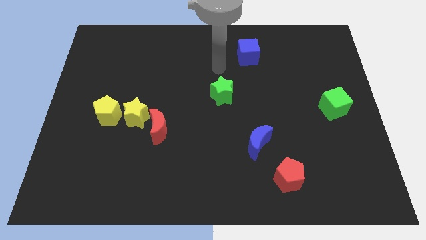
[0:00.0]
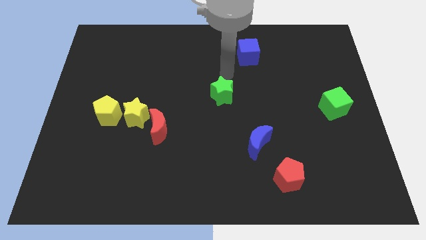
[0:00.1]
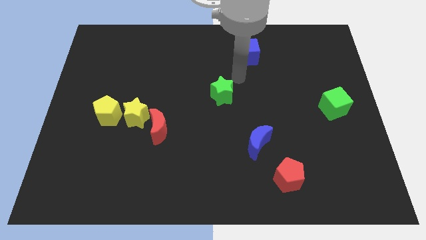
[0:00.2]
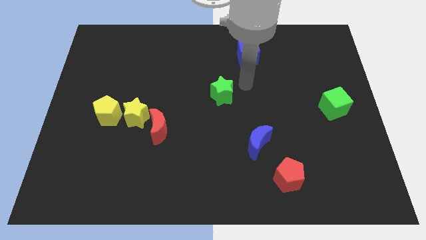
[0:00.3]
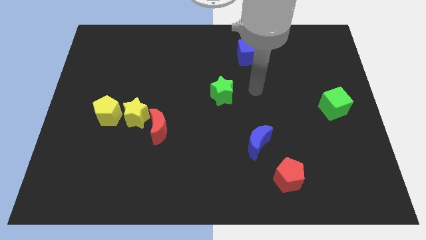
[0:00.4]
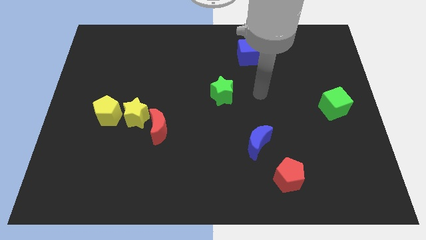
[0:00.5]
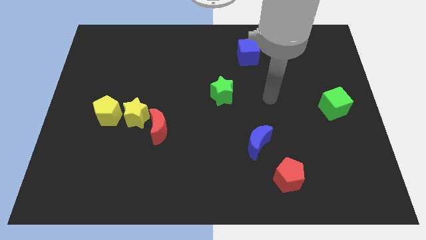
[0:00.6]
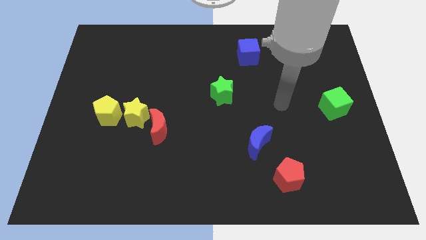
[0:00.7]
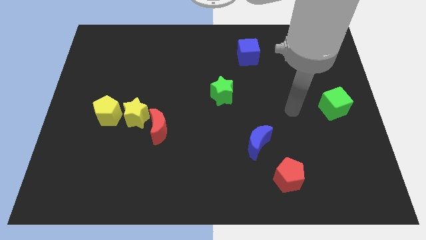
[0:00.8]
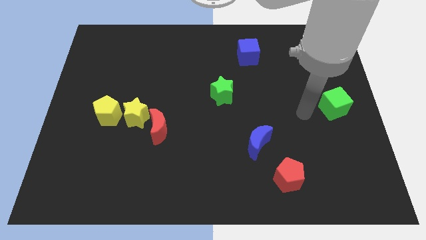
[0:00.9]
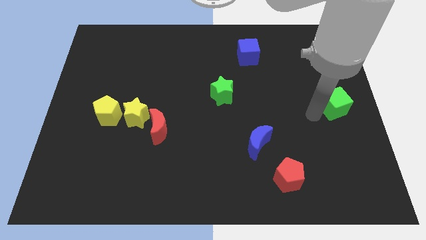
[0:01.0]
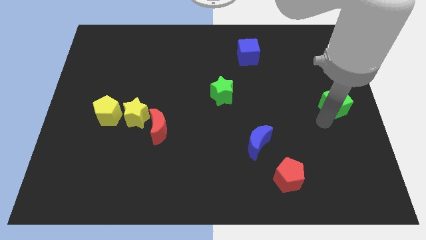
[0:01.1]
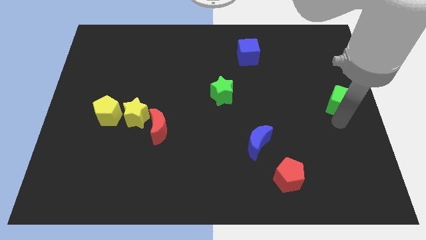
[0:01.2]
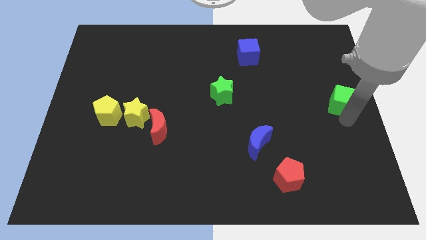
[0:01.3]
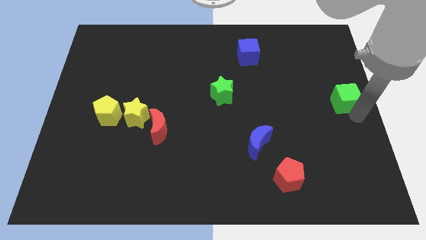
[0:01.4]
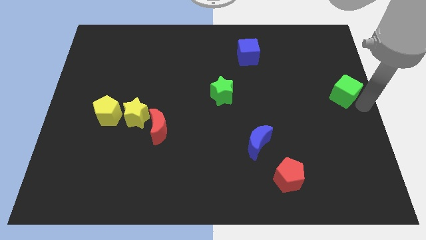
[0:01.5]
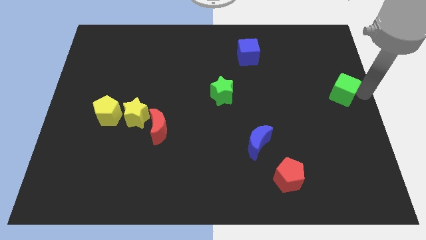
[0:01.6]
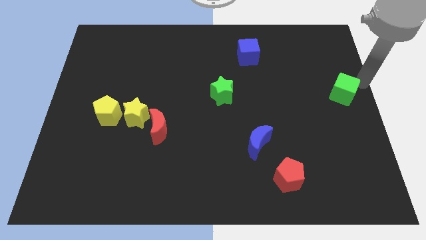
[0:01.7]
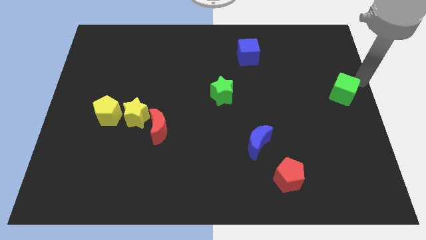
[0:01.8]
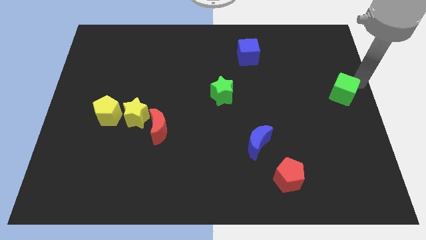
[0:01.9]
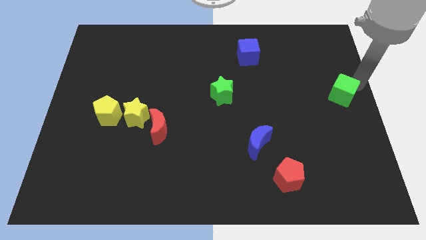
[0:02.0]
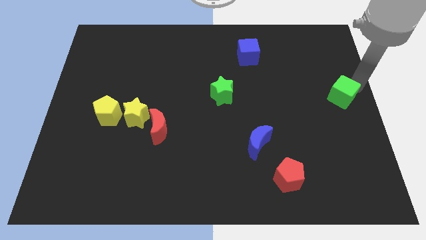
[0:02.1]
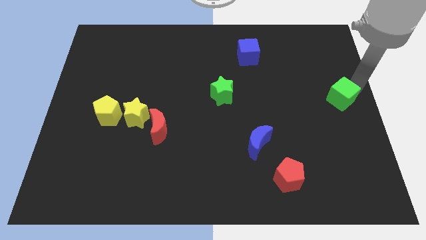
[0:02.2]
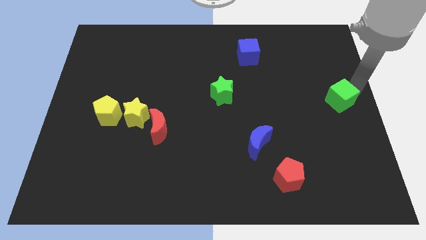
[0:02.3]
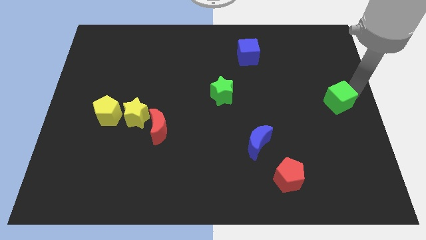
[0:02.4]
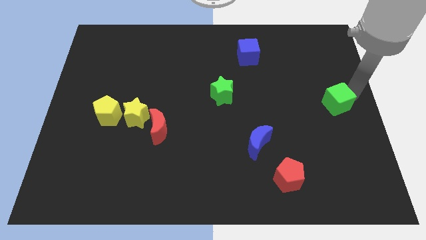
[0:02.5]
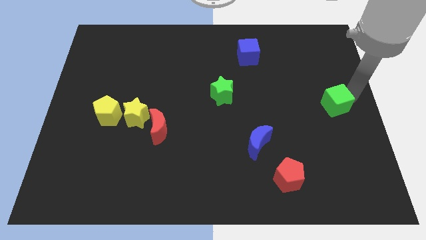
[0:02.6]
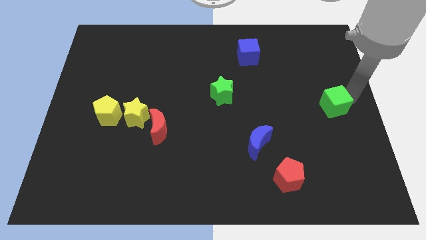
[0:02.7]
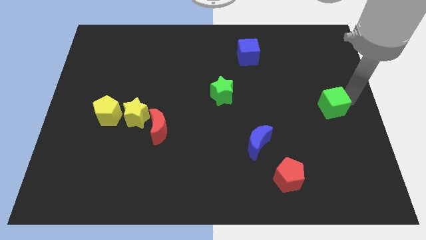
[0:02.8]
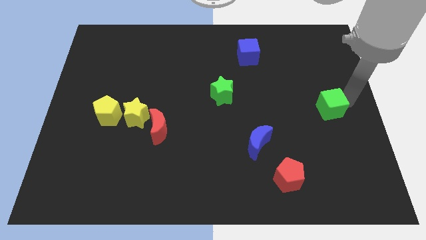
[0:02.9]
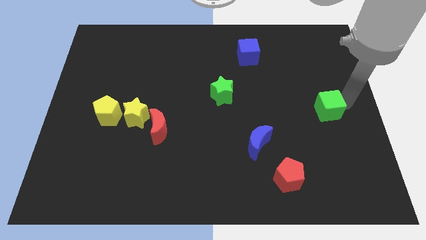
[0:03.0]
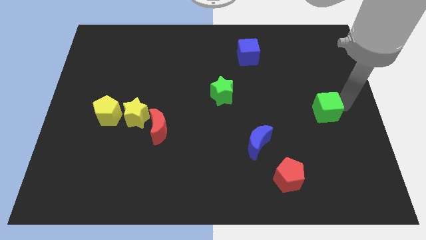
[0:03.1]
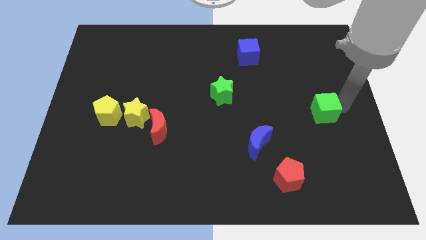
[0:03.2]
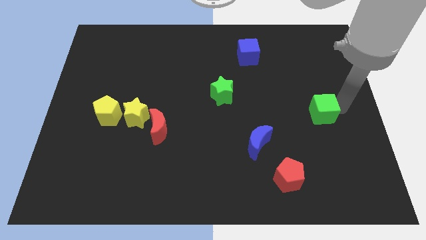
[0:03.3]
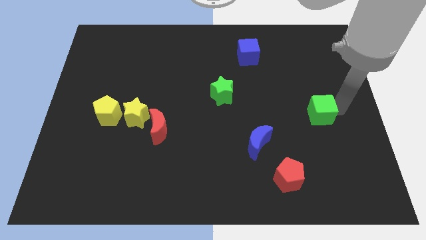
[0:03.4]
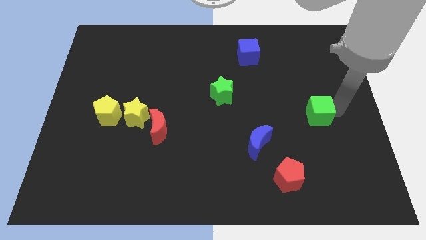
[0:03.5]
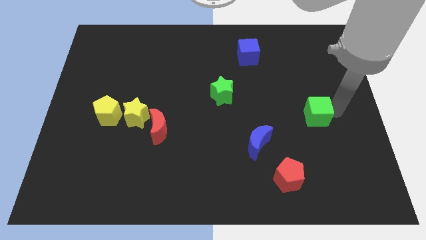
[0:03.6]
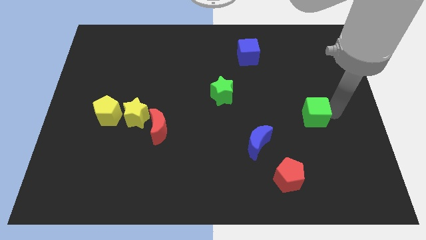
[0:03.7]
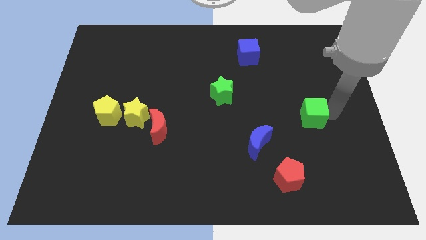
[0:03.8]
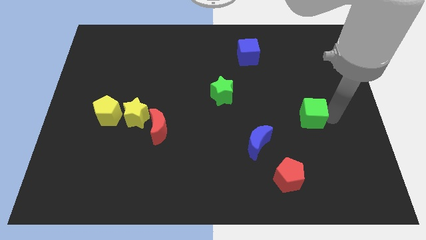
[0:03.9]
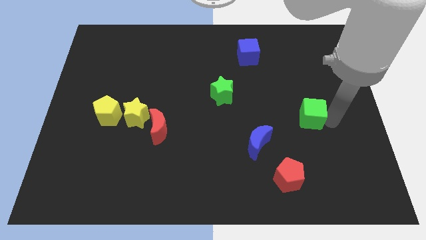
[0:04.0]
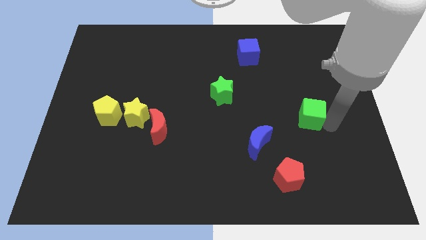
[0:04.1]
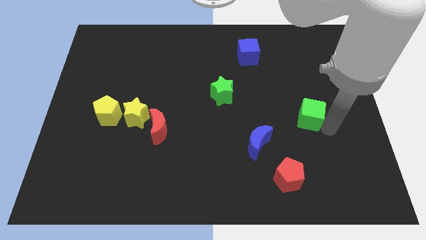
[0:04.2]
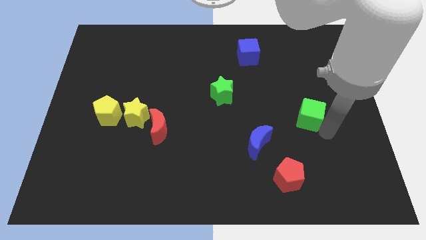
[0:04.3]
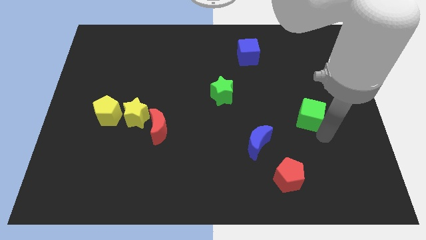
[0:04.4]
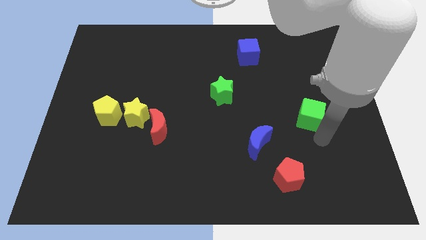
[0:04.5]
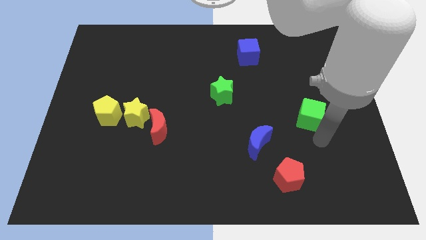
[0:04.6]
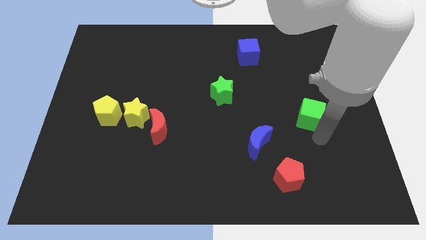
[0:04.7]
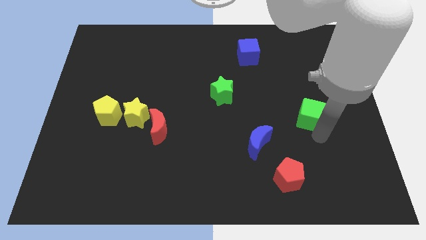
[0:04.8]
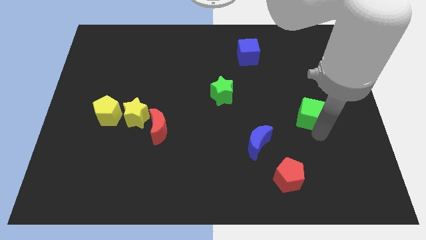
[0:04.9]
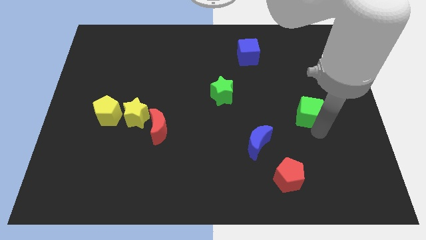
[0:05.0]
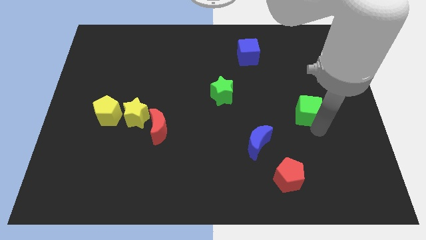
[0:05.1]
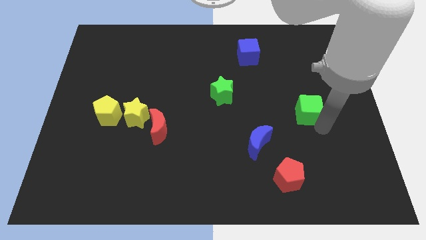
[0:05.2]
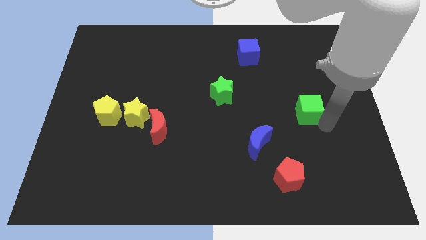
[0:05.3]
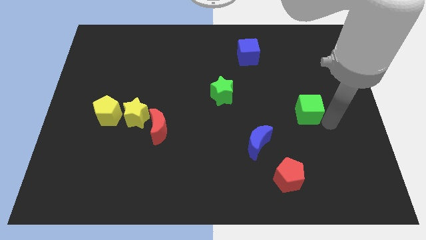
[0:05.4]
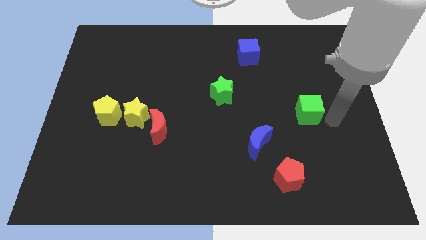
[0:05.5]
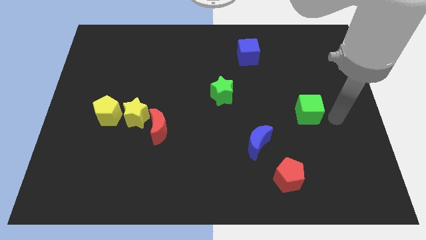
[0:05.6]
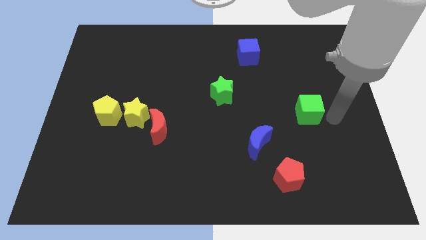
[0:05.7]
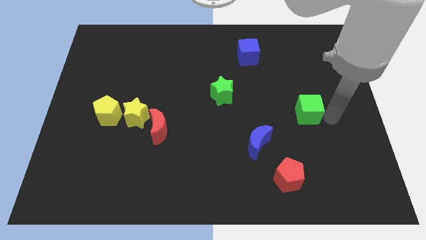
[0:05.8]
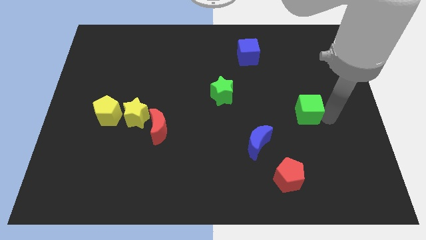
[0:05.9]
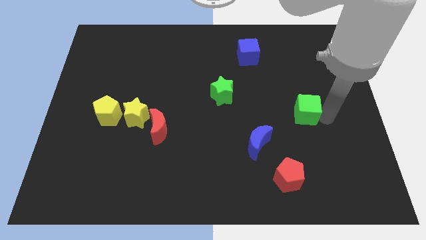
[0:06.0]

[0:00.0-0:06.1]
move the green cube slightly to the left

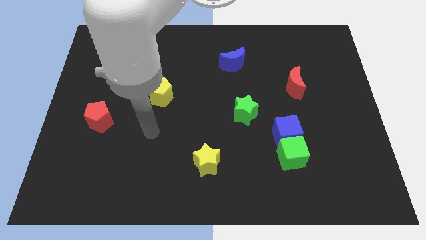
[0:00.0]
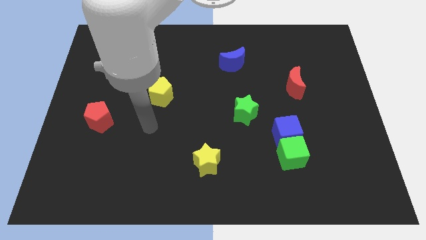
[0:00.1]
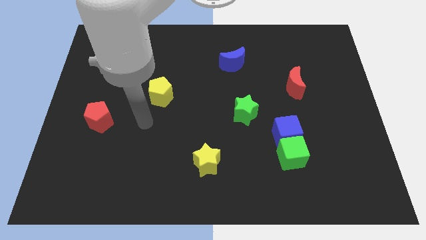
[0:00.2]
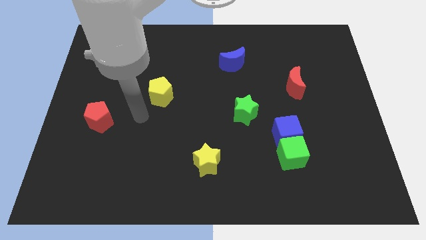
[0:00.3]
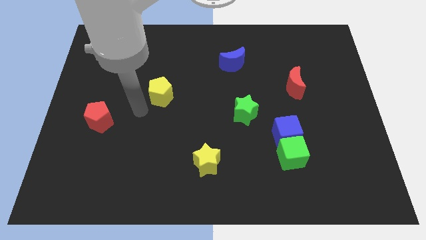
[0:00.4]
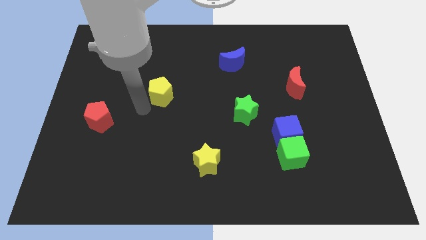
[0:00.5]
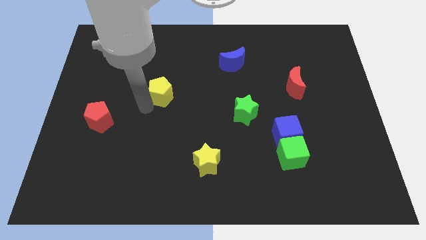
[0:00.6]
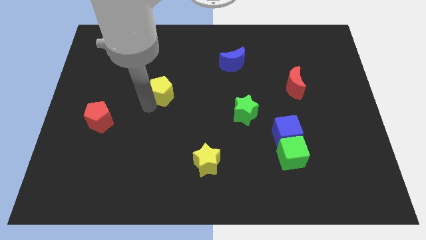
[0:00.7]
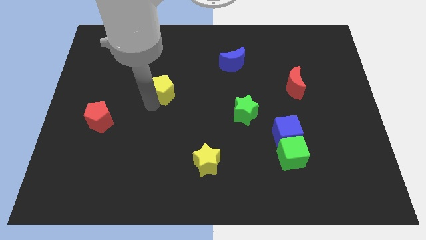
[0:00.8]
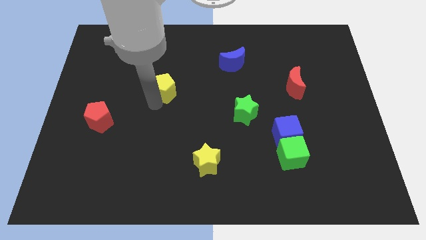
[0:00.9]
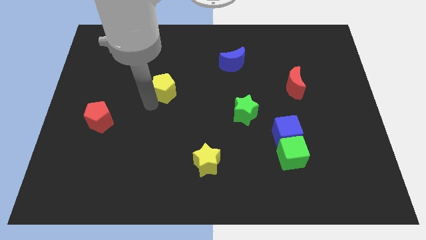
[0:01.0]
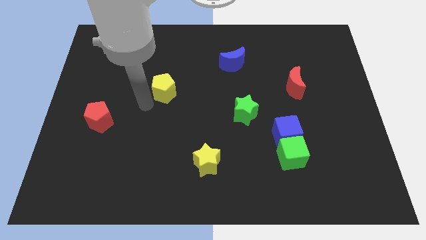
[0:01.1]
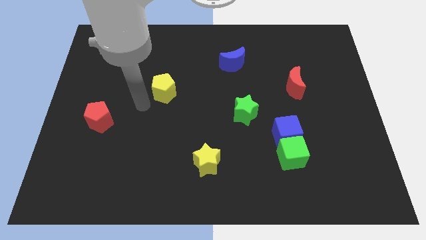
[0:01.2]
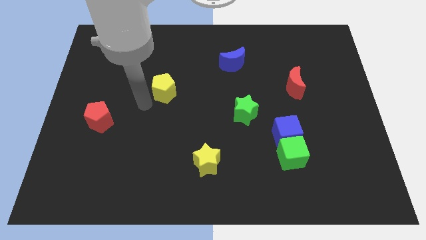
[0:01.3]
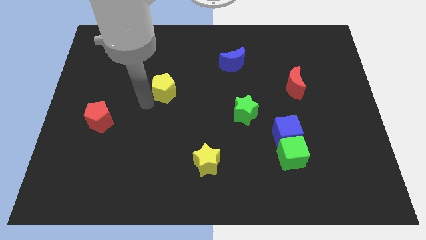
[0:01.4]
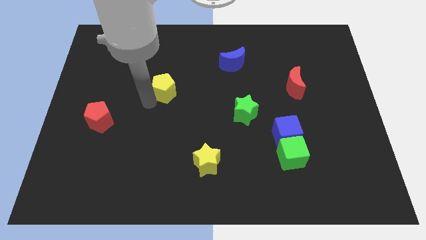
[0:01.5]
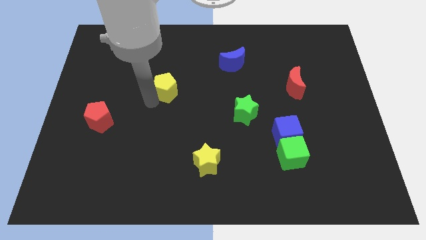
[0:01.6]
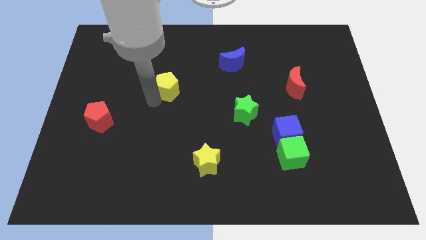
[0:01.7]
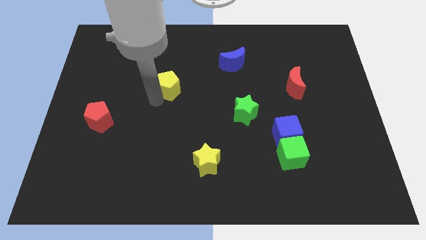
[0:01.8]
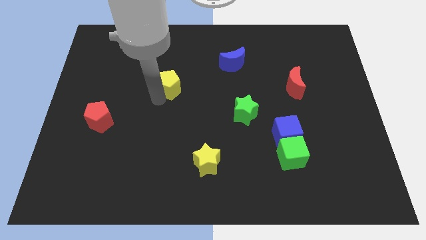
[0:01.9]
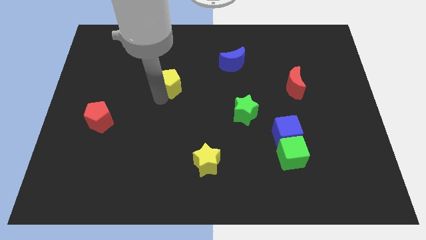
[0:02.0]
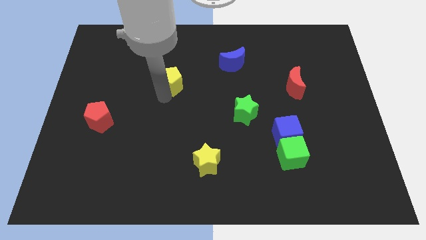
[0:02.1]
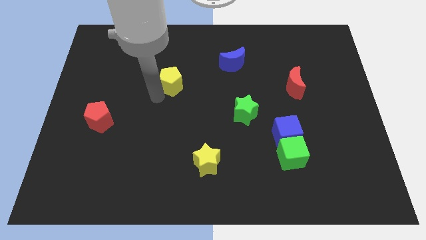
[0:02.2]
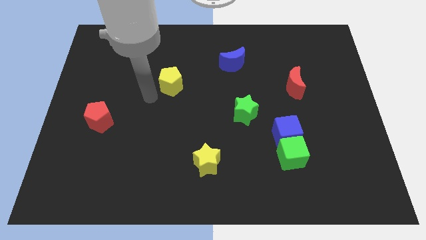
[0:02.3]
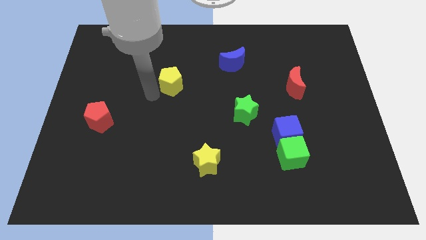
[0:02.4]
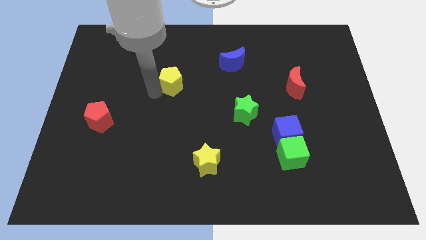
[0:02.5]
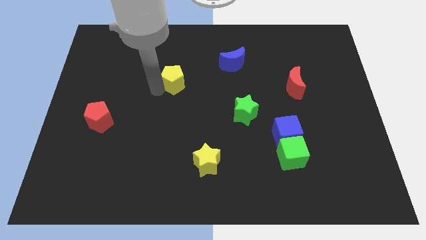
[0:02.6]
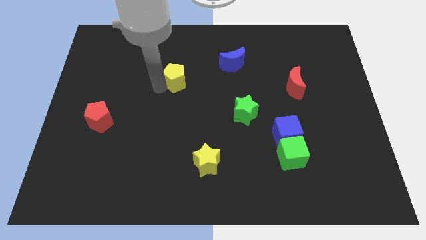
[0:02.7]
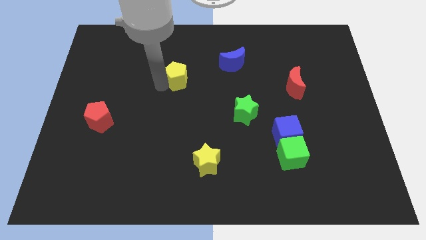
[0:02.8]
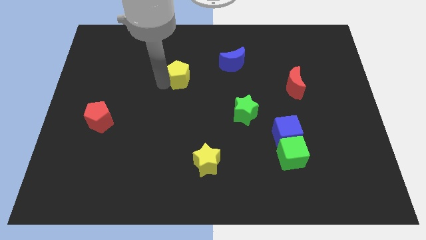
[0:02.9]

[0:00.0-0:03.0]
push the yellow pentagon a little diagonally upwards and right
